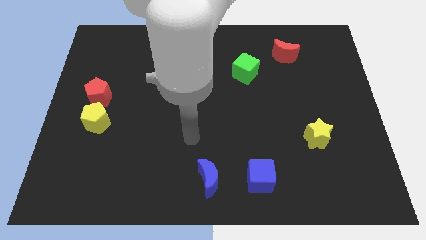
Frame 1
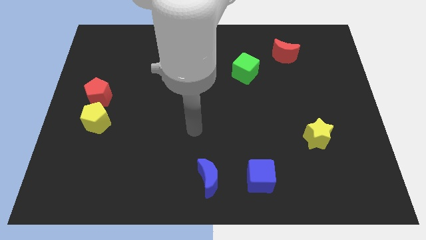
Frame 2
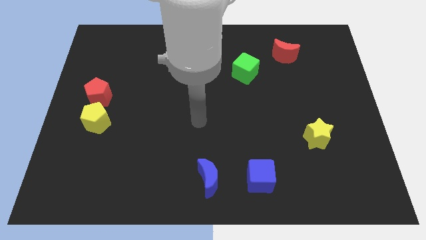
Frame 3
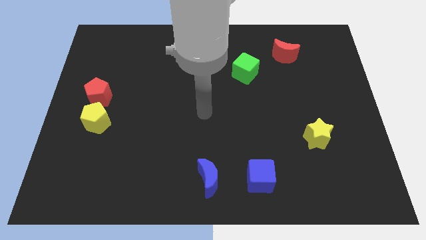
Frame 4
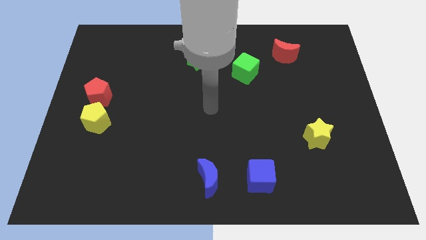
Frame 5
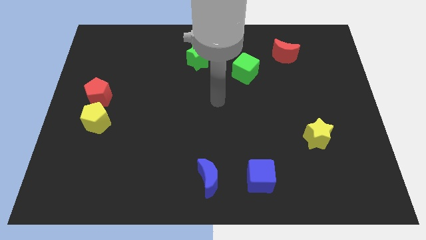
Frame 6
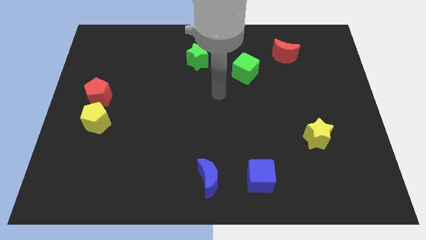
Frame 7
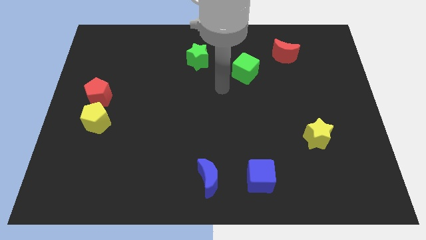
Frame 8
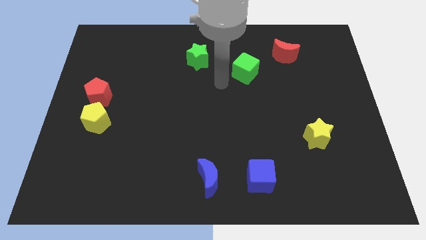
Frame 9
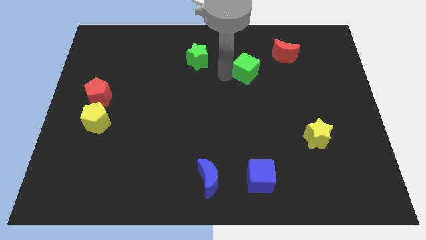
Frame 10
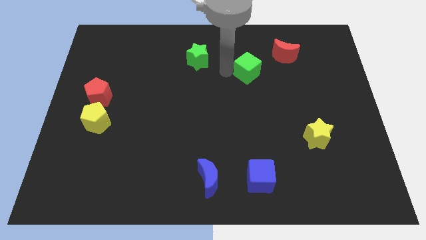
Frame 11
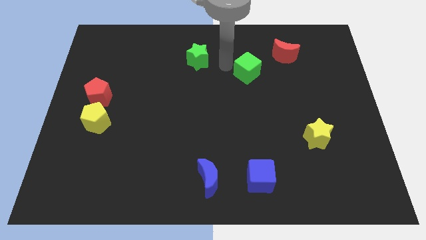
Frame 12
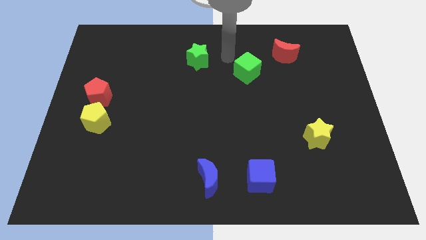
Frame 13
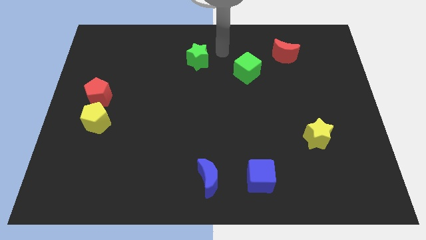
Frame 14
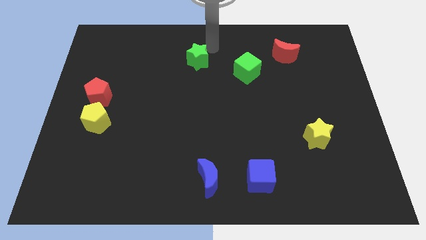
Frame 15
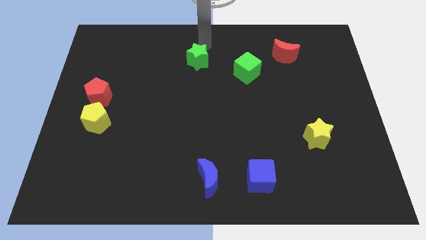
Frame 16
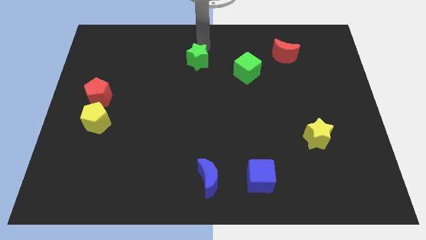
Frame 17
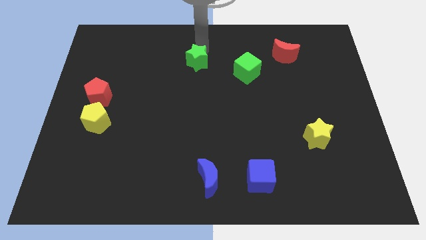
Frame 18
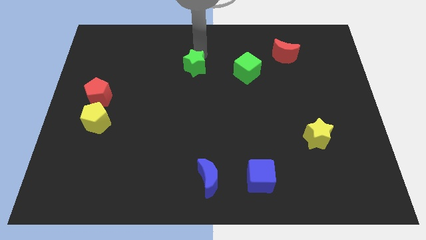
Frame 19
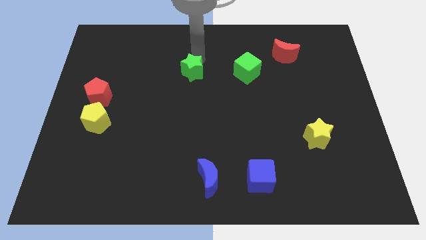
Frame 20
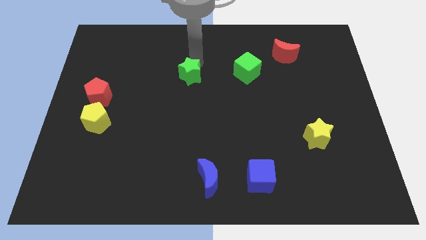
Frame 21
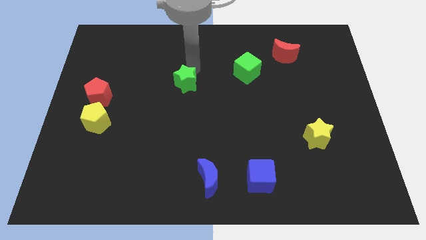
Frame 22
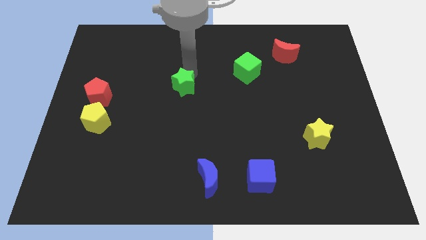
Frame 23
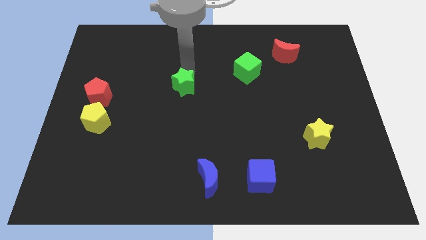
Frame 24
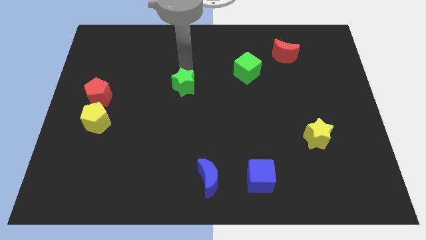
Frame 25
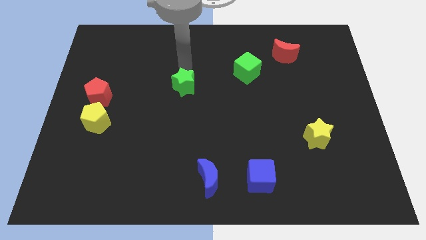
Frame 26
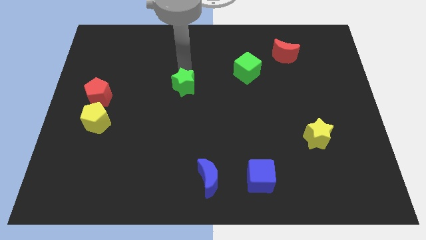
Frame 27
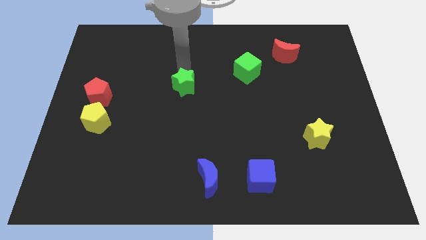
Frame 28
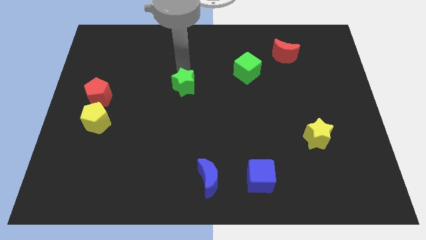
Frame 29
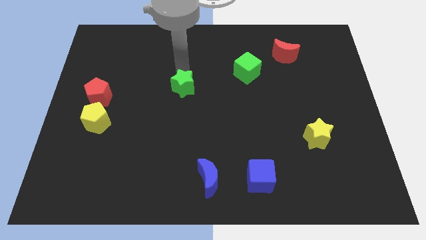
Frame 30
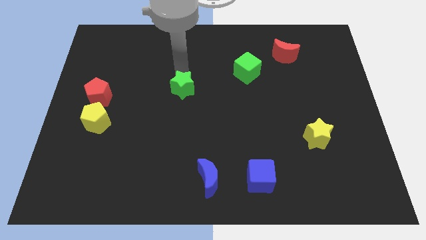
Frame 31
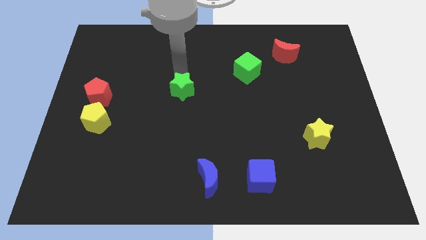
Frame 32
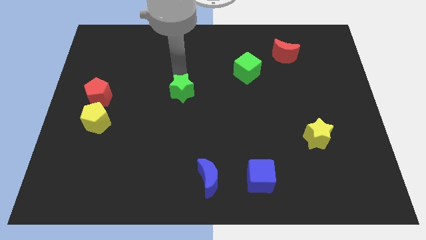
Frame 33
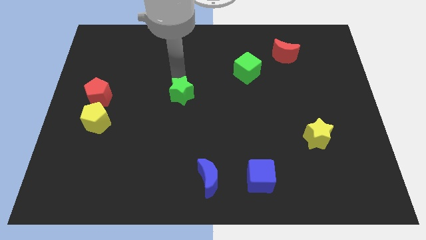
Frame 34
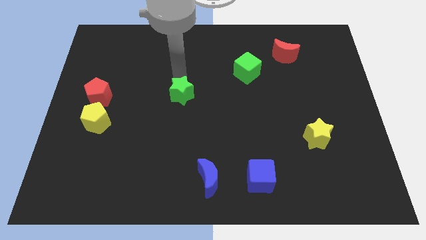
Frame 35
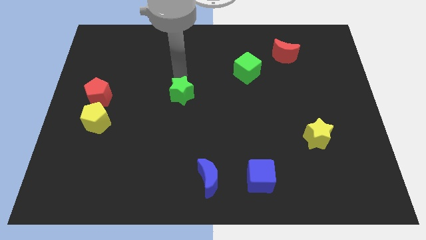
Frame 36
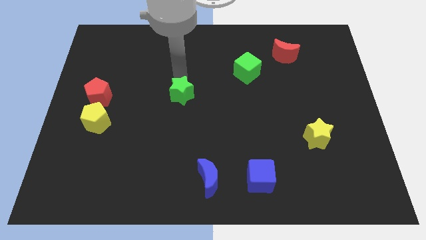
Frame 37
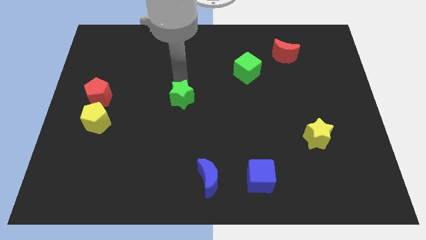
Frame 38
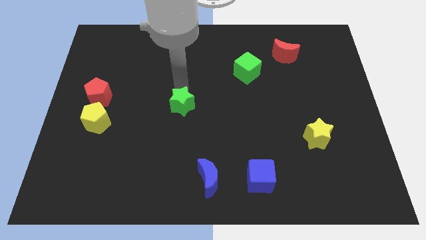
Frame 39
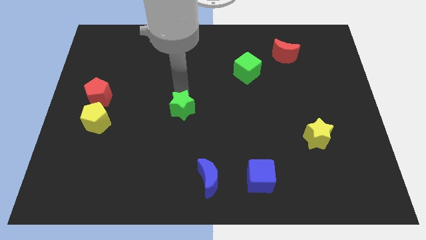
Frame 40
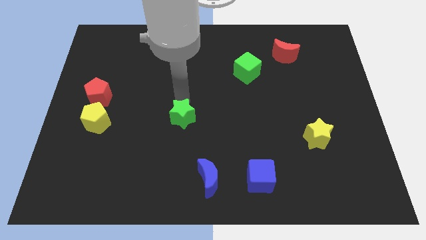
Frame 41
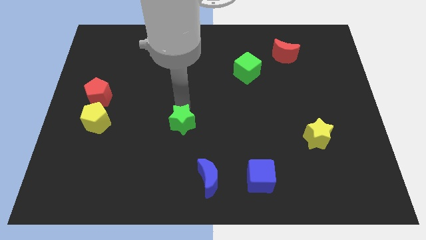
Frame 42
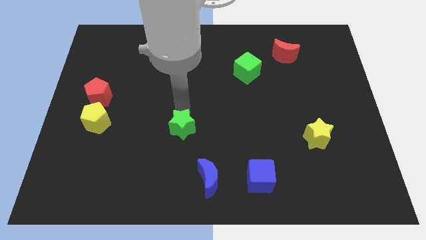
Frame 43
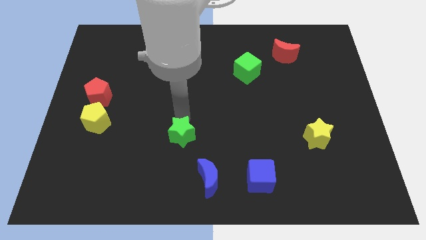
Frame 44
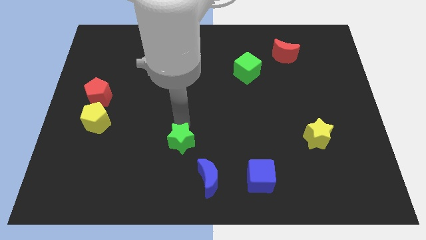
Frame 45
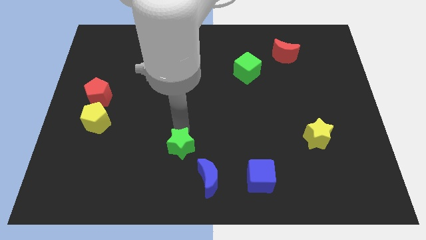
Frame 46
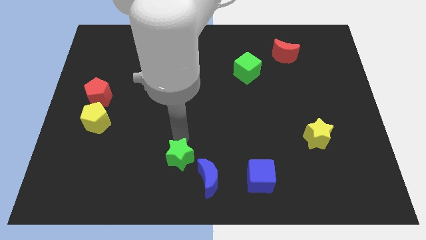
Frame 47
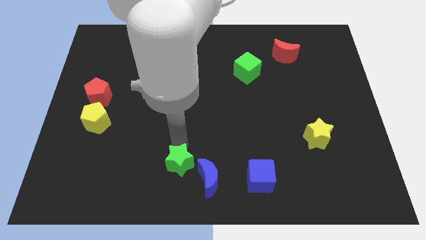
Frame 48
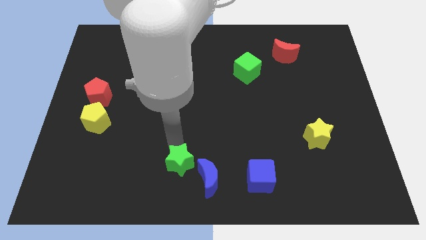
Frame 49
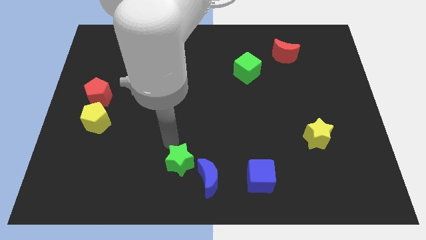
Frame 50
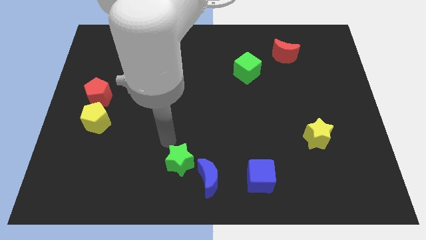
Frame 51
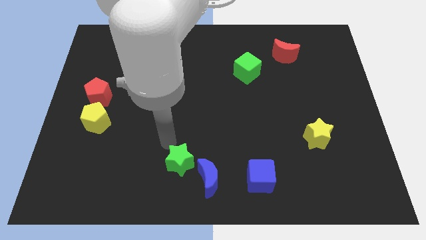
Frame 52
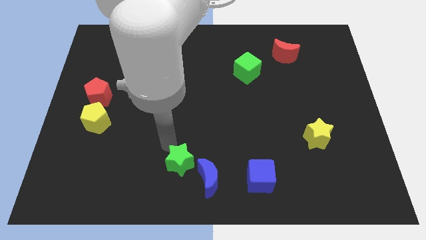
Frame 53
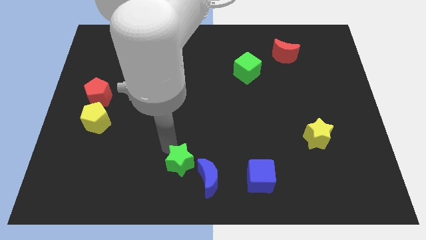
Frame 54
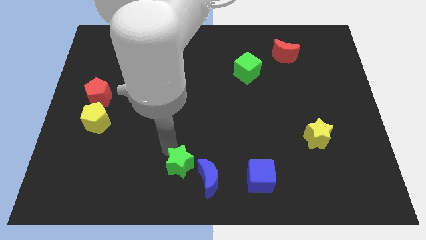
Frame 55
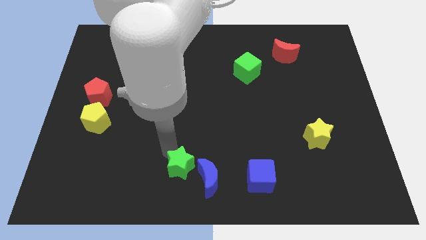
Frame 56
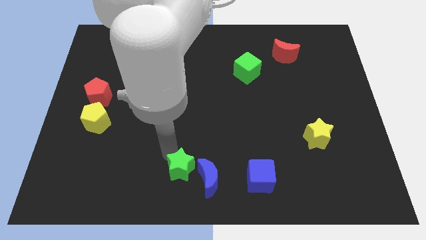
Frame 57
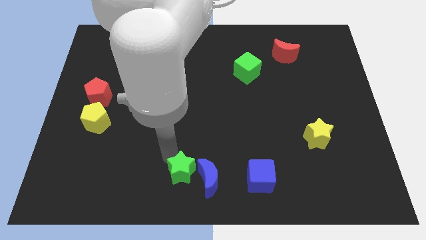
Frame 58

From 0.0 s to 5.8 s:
put the green star to the left of the blue cube

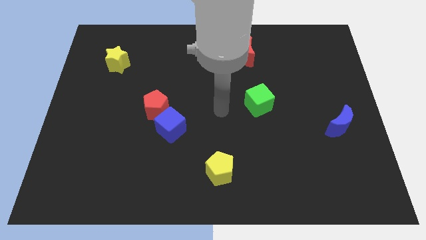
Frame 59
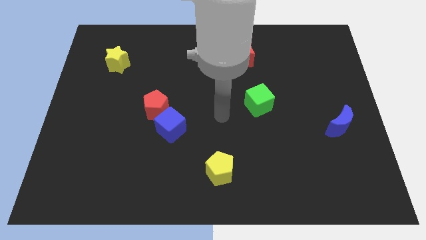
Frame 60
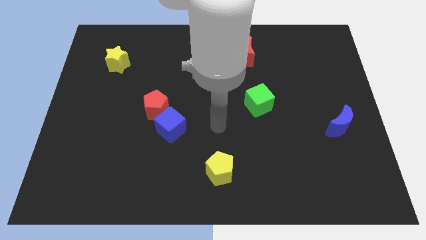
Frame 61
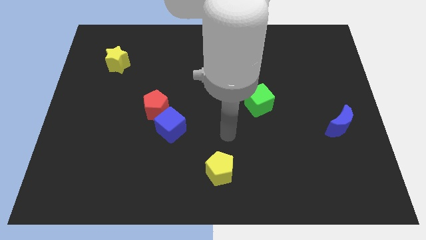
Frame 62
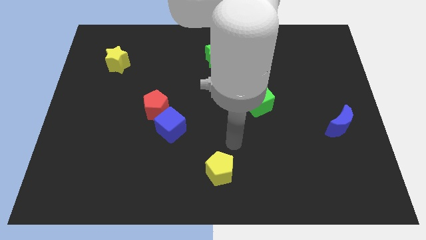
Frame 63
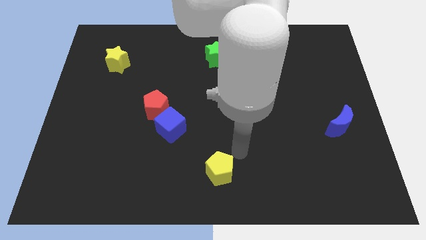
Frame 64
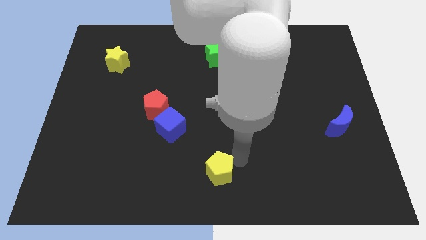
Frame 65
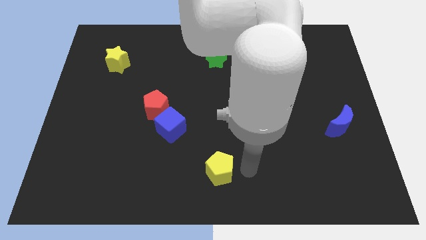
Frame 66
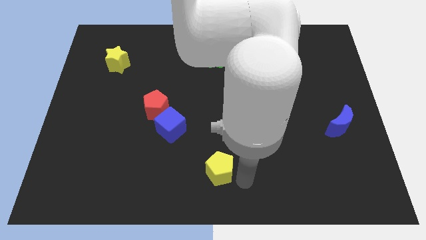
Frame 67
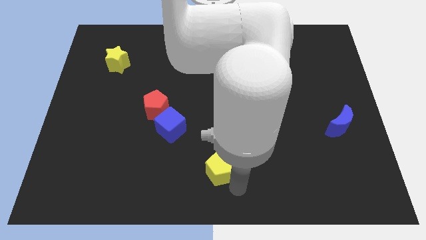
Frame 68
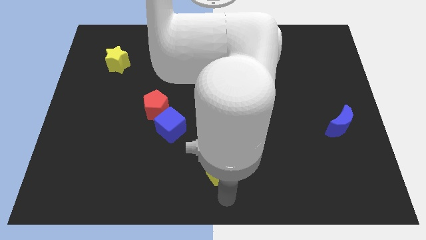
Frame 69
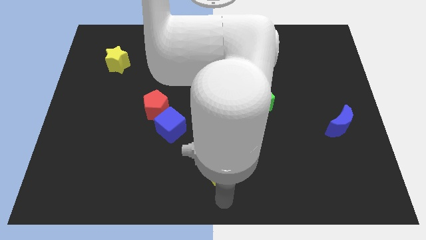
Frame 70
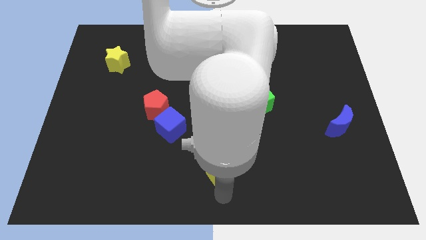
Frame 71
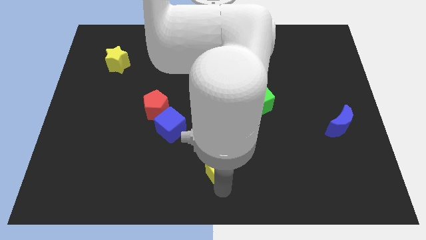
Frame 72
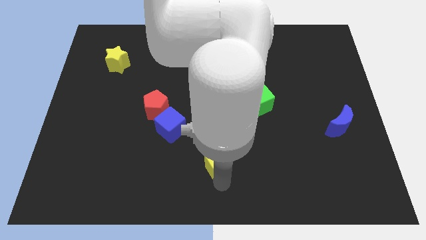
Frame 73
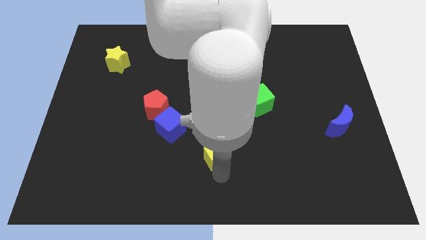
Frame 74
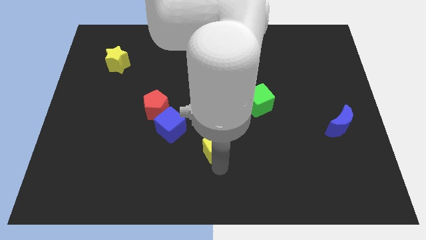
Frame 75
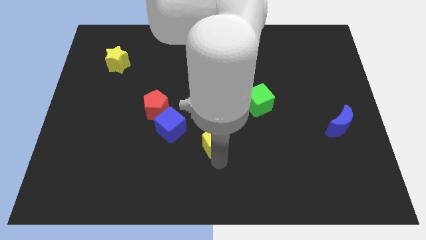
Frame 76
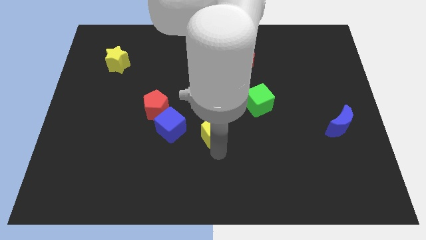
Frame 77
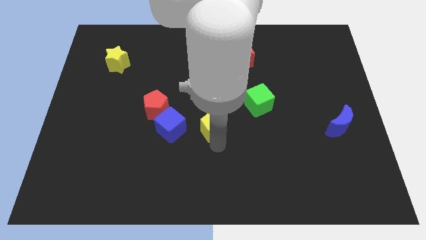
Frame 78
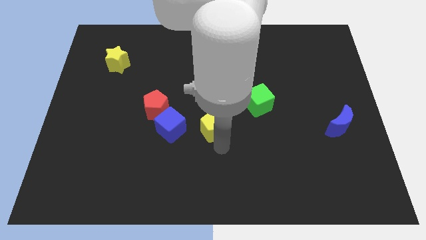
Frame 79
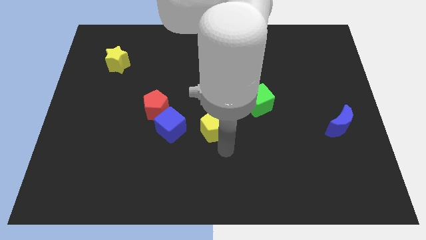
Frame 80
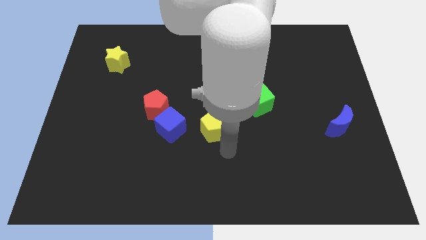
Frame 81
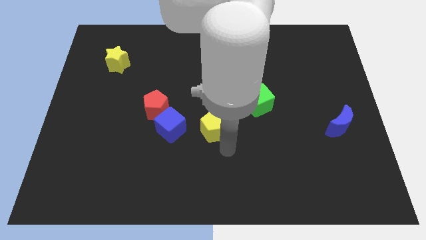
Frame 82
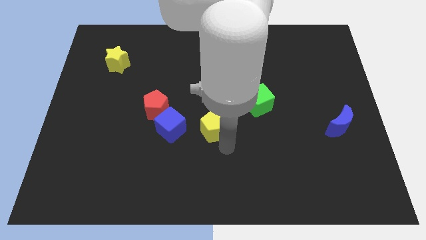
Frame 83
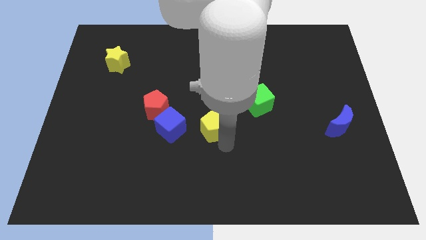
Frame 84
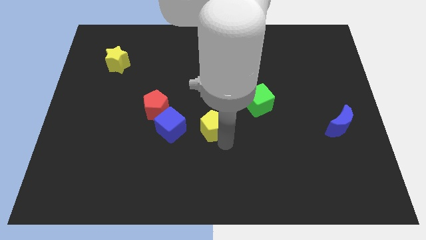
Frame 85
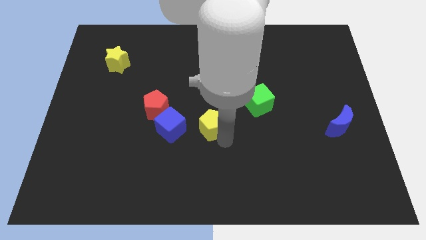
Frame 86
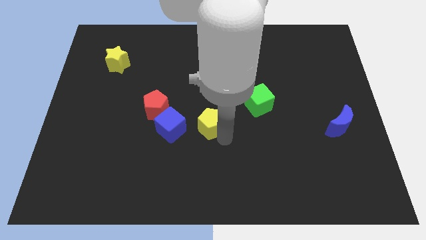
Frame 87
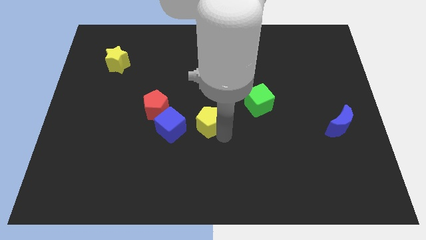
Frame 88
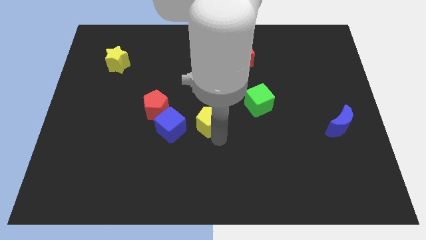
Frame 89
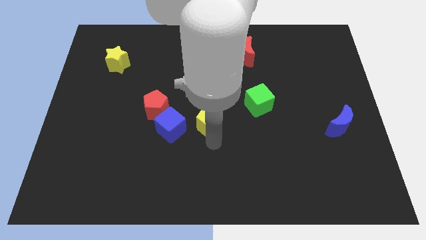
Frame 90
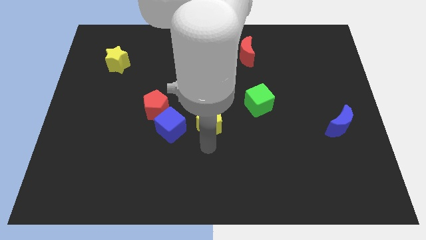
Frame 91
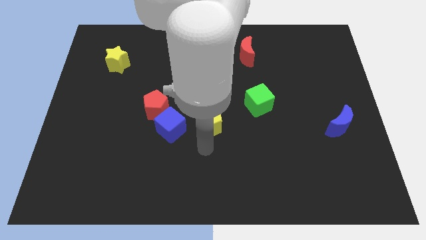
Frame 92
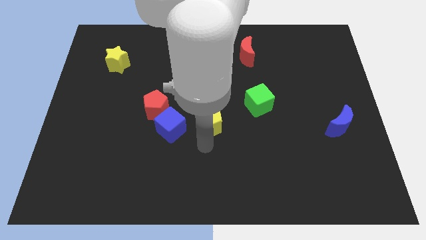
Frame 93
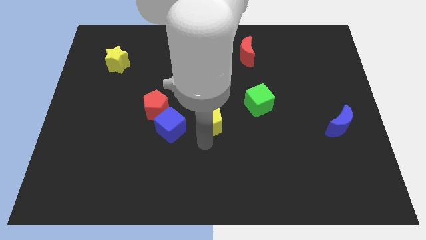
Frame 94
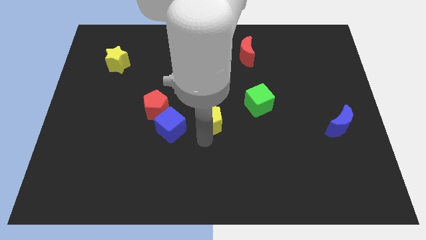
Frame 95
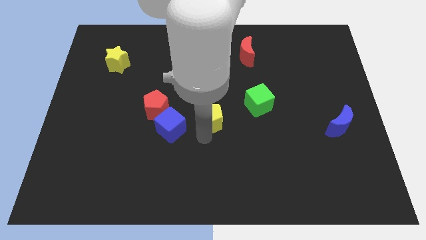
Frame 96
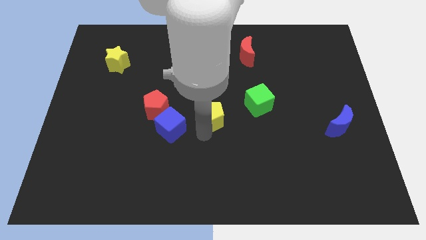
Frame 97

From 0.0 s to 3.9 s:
put the yellow pentagon just left of the green cube
